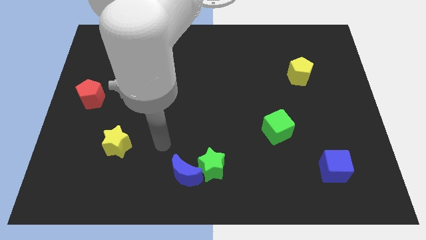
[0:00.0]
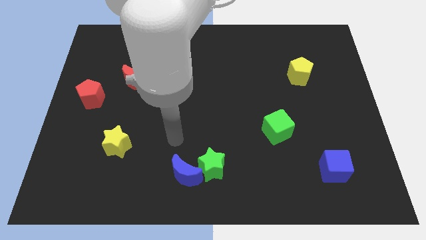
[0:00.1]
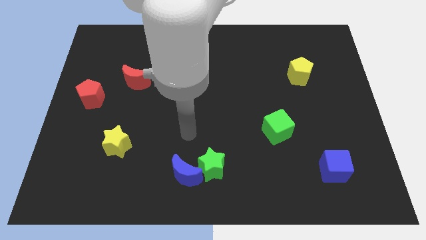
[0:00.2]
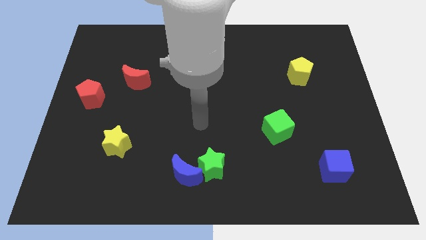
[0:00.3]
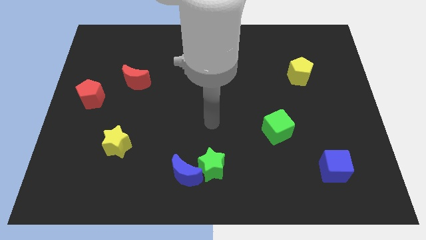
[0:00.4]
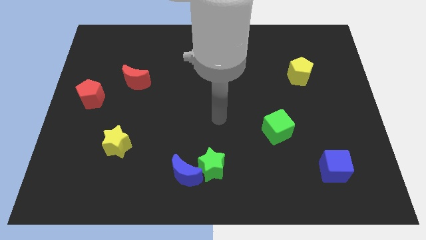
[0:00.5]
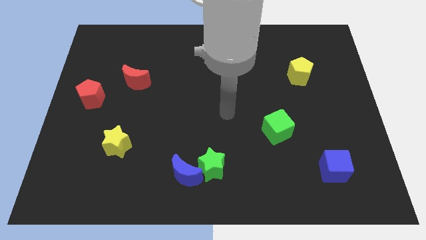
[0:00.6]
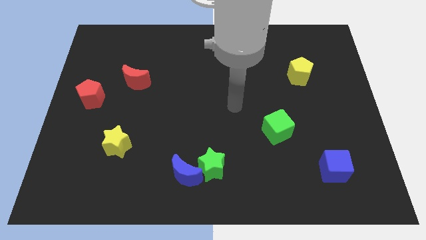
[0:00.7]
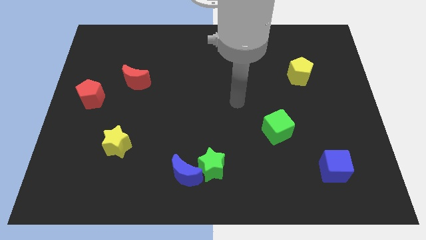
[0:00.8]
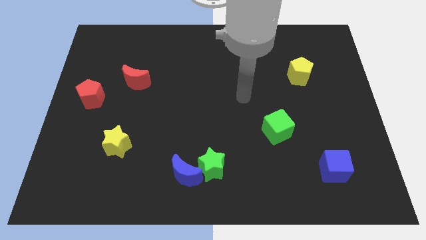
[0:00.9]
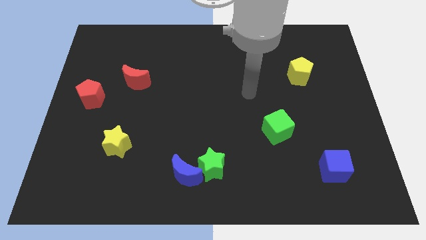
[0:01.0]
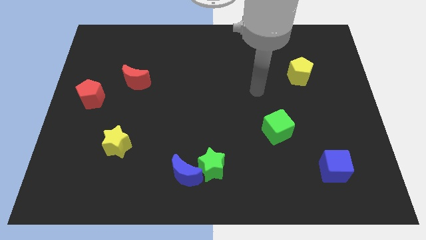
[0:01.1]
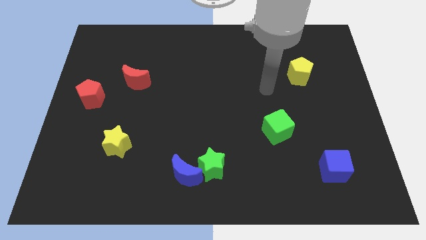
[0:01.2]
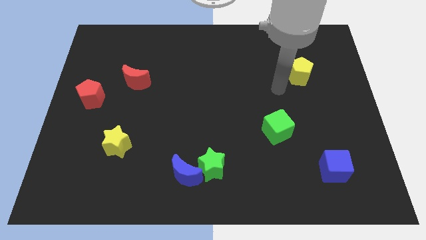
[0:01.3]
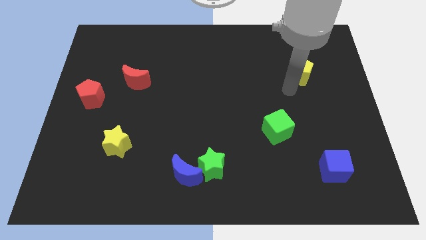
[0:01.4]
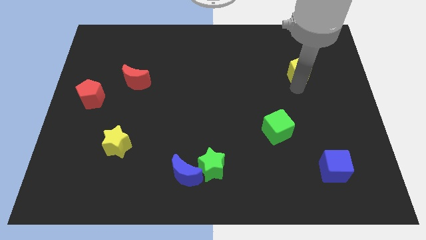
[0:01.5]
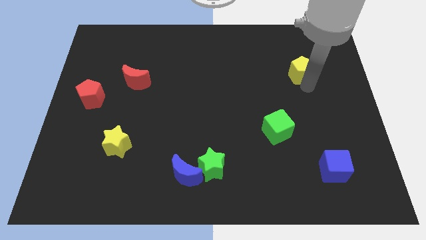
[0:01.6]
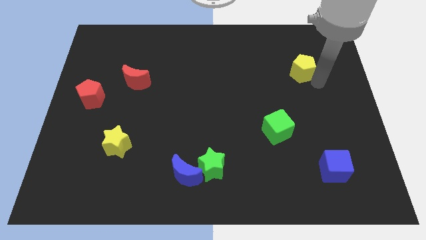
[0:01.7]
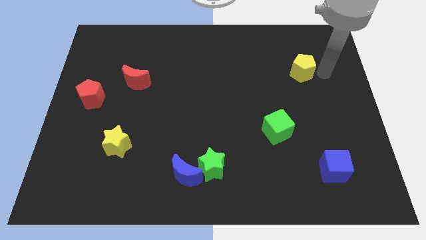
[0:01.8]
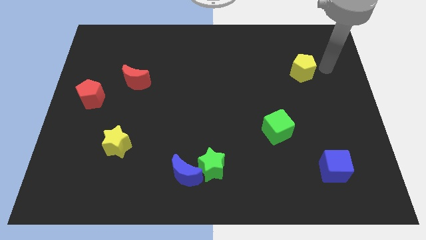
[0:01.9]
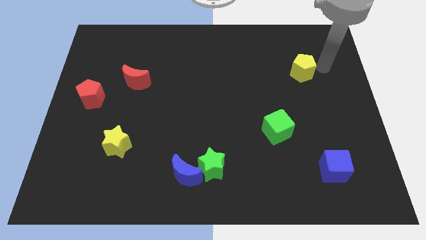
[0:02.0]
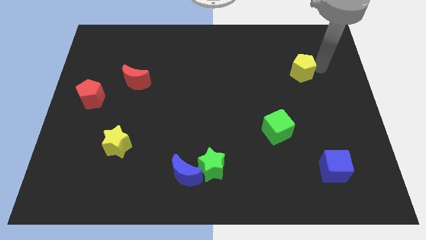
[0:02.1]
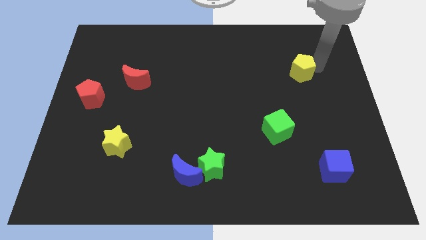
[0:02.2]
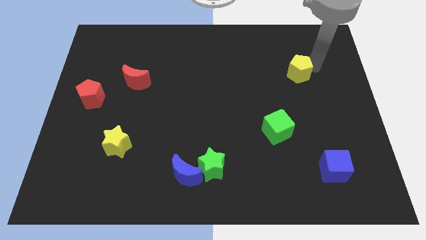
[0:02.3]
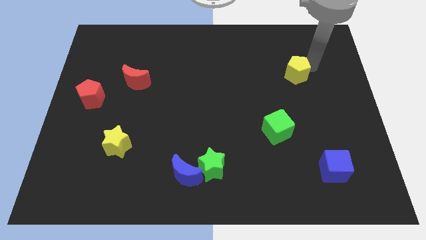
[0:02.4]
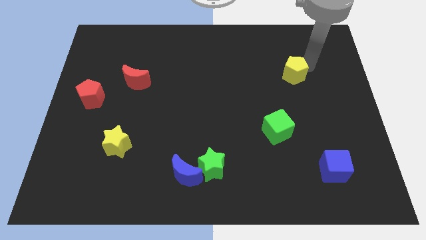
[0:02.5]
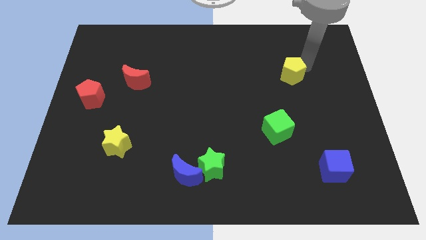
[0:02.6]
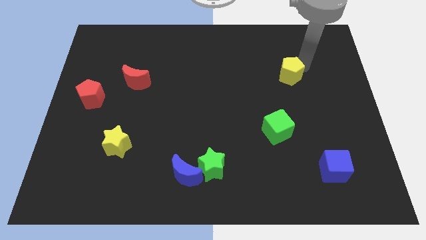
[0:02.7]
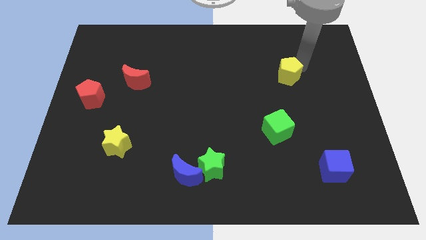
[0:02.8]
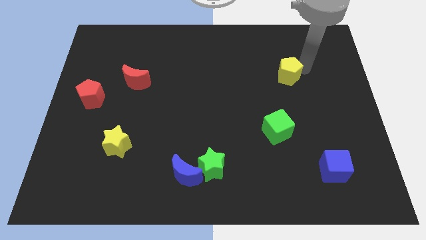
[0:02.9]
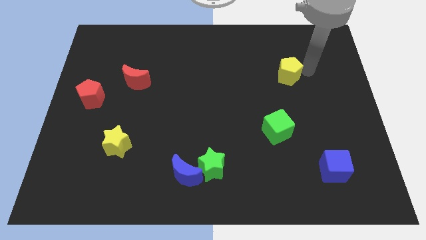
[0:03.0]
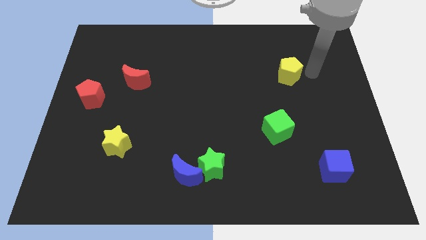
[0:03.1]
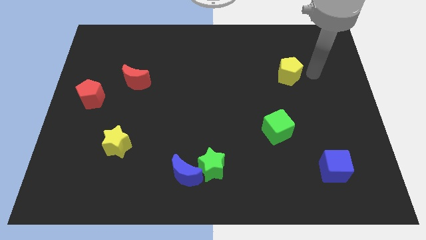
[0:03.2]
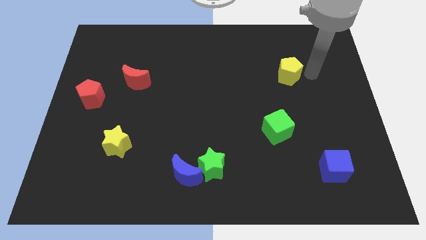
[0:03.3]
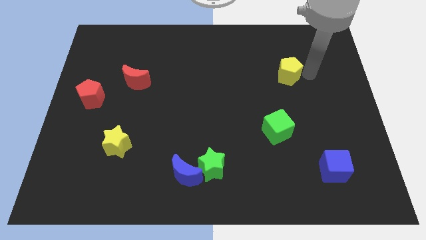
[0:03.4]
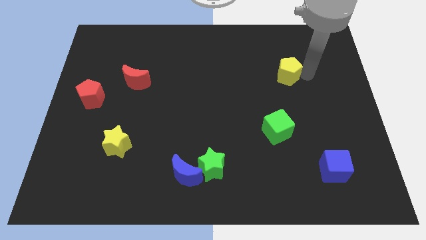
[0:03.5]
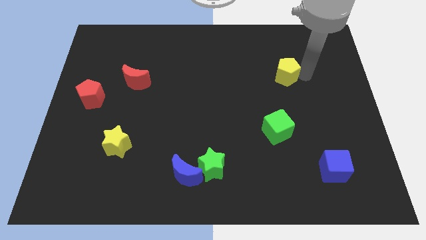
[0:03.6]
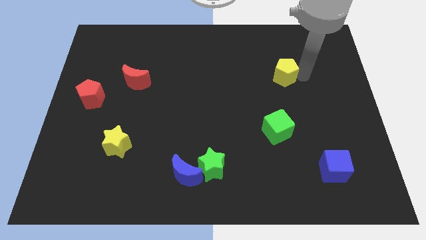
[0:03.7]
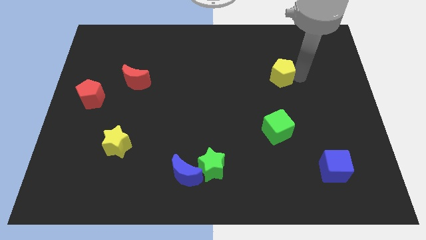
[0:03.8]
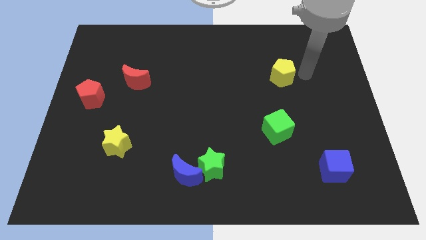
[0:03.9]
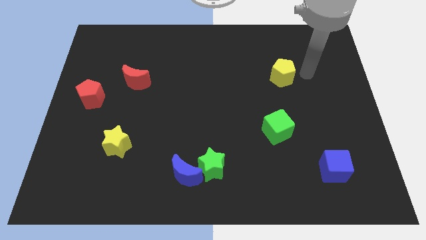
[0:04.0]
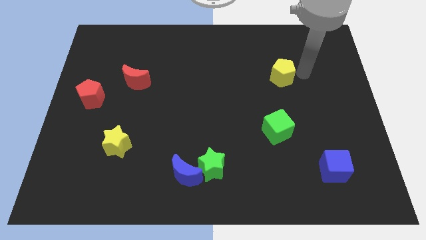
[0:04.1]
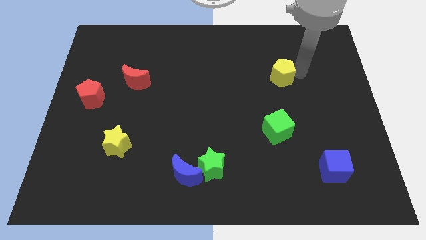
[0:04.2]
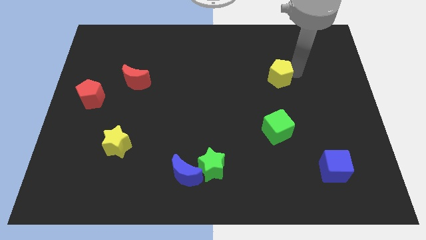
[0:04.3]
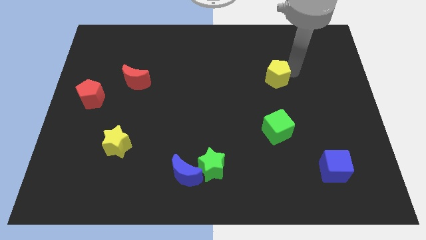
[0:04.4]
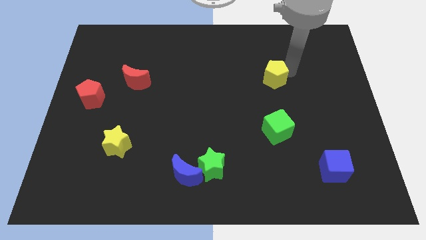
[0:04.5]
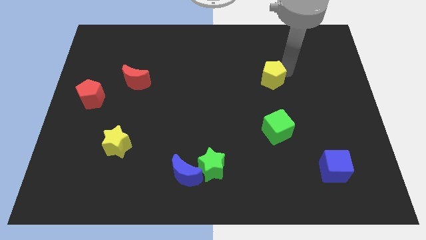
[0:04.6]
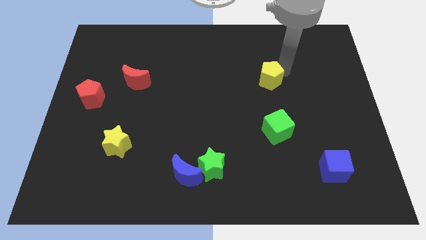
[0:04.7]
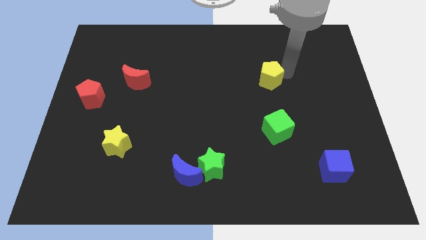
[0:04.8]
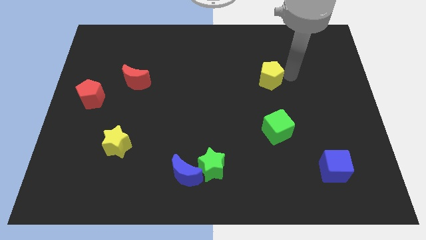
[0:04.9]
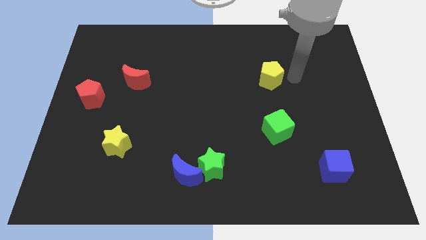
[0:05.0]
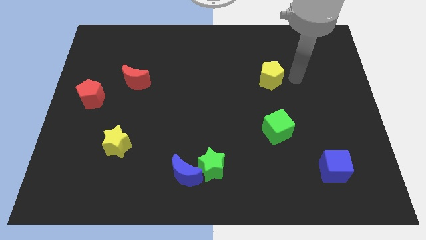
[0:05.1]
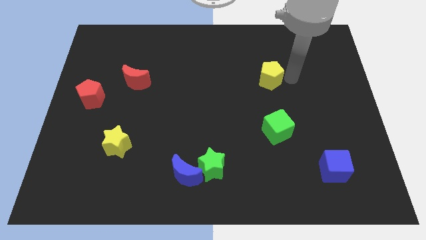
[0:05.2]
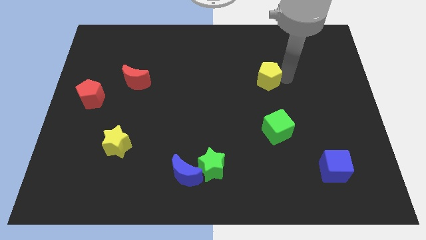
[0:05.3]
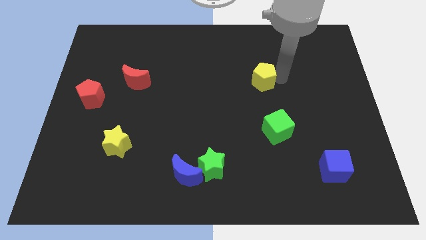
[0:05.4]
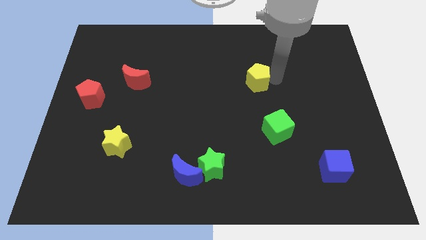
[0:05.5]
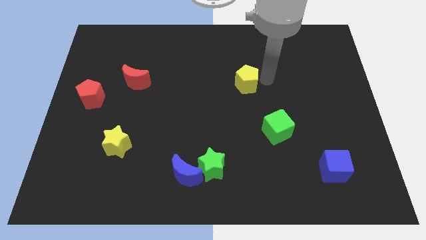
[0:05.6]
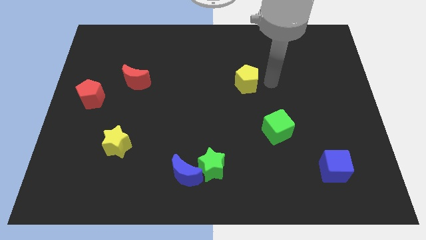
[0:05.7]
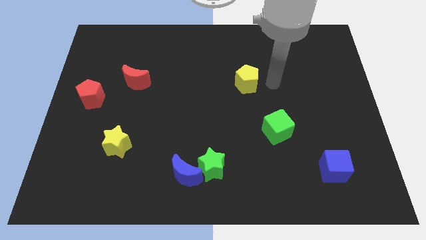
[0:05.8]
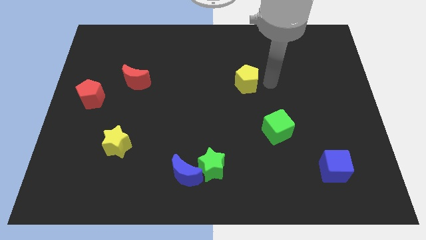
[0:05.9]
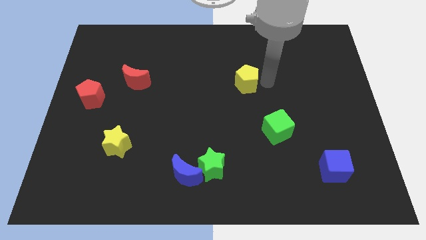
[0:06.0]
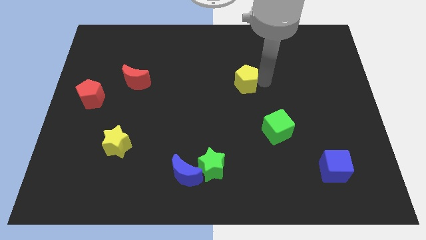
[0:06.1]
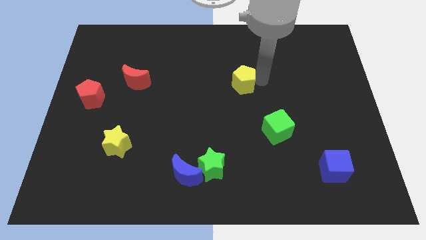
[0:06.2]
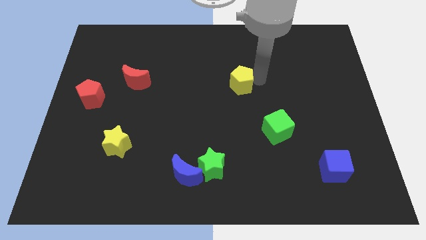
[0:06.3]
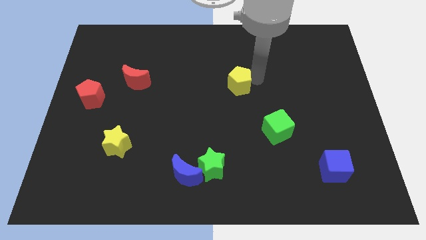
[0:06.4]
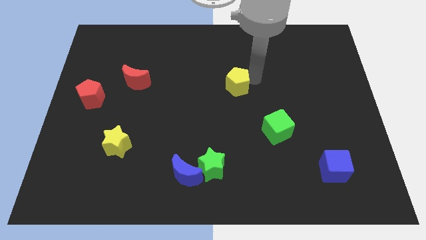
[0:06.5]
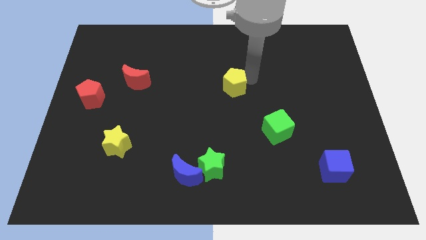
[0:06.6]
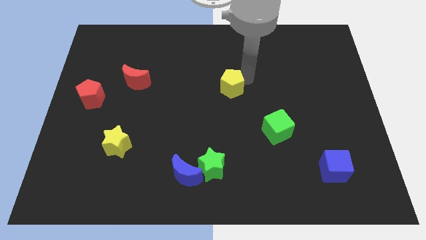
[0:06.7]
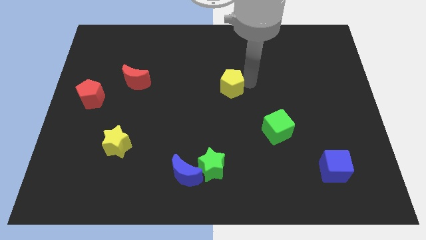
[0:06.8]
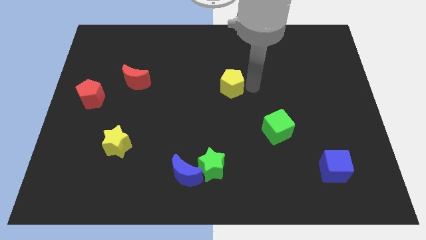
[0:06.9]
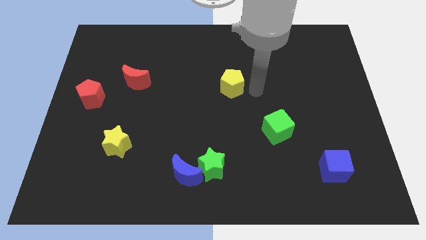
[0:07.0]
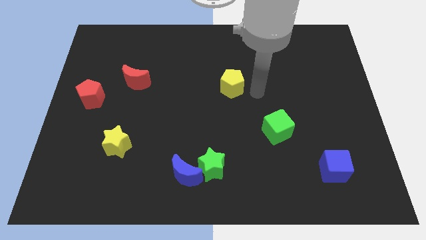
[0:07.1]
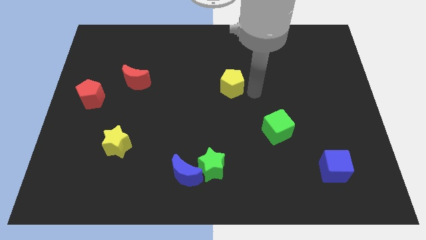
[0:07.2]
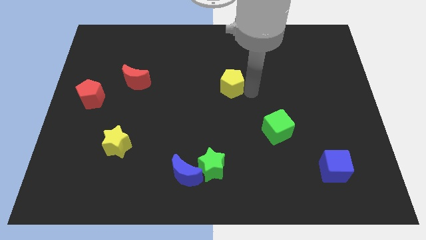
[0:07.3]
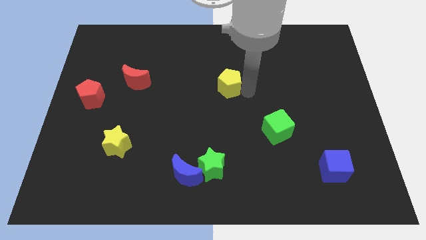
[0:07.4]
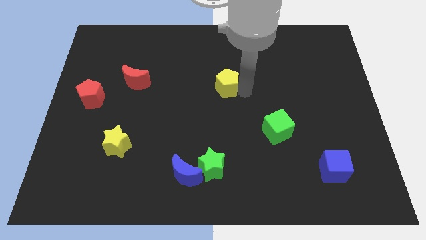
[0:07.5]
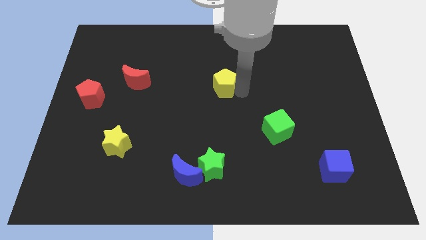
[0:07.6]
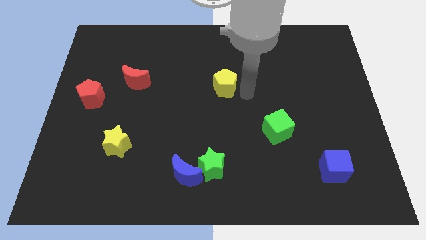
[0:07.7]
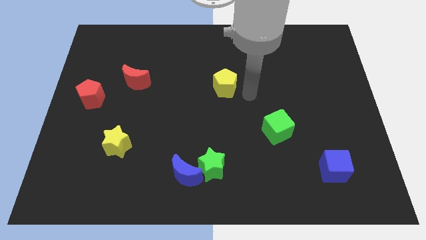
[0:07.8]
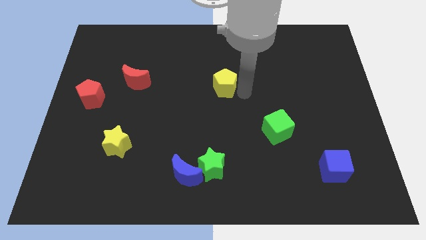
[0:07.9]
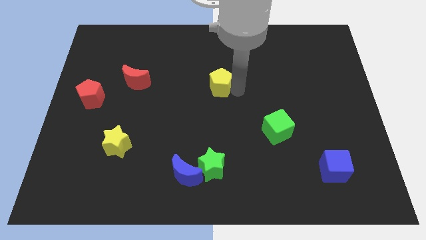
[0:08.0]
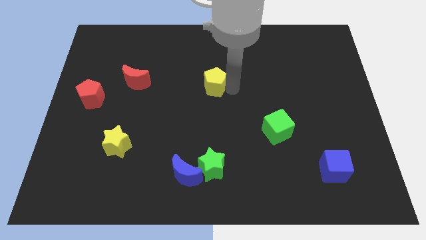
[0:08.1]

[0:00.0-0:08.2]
slide the yellow pentagon to the left
